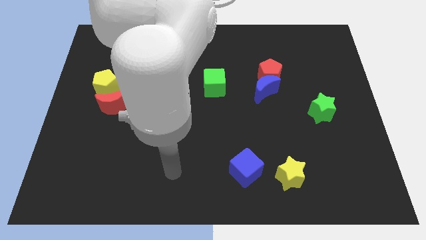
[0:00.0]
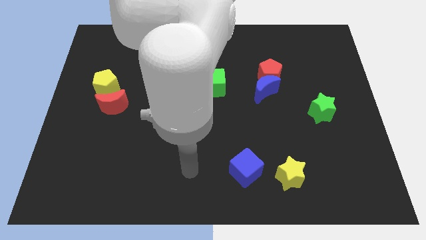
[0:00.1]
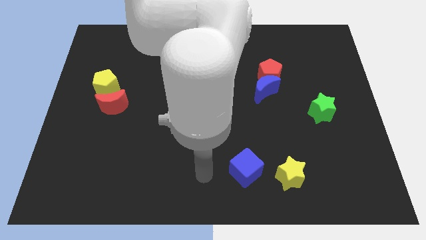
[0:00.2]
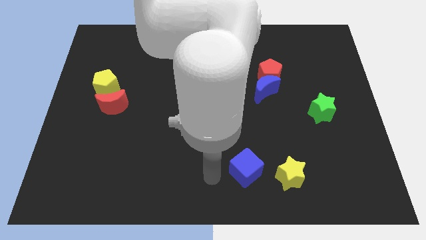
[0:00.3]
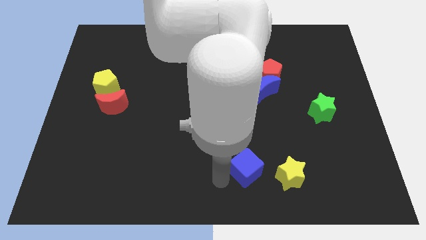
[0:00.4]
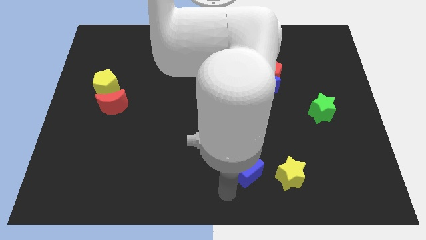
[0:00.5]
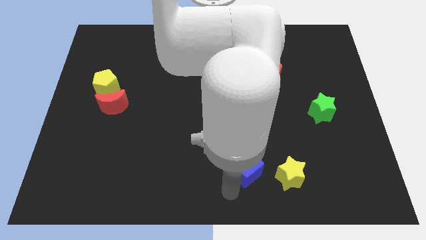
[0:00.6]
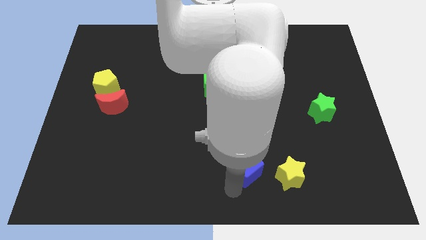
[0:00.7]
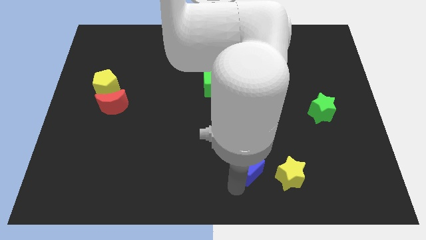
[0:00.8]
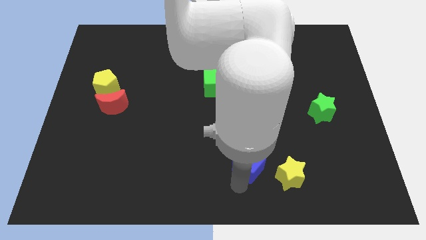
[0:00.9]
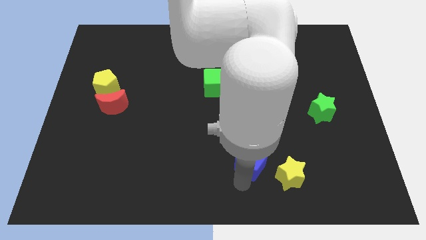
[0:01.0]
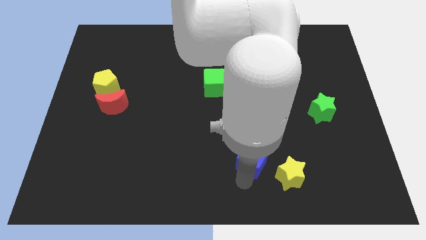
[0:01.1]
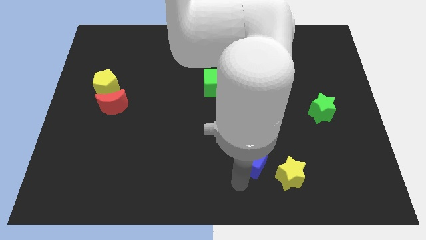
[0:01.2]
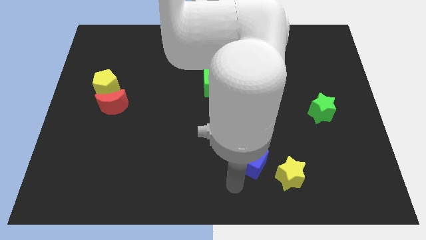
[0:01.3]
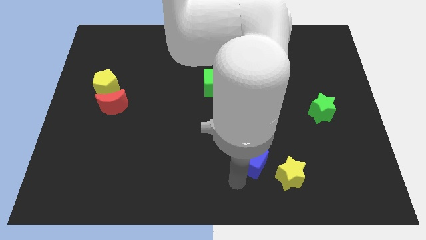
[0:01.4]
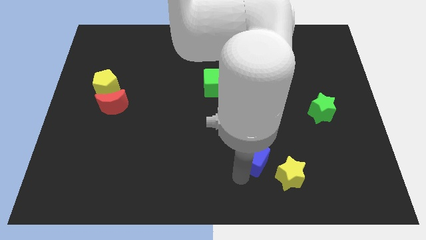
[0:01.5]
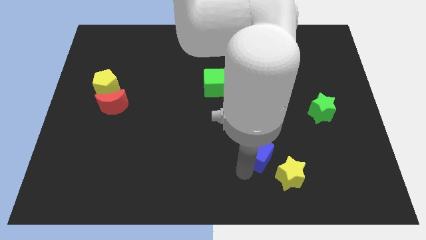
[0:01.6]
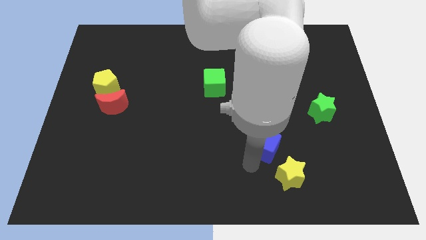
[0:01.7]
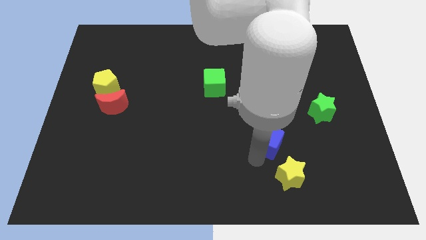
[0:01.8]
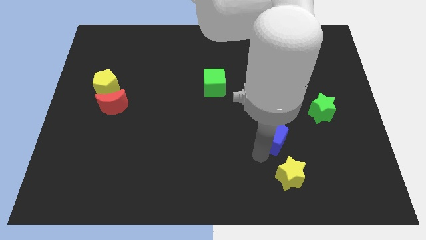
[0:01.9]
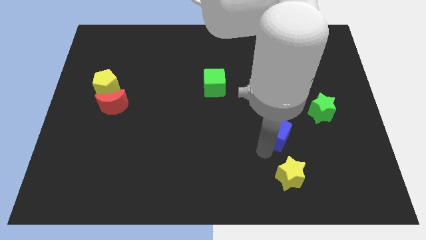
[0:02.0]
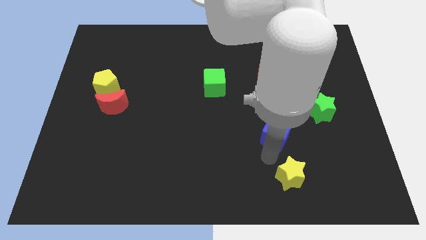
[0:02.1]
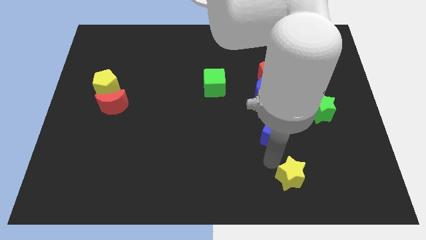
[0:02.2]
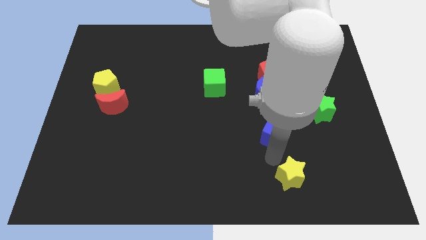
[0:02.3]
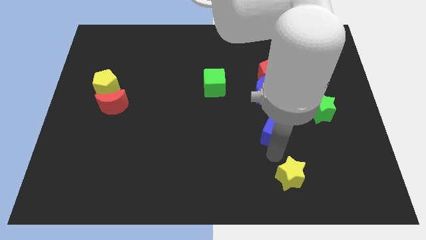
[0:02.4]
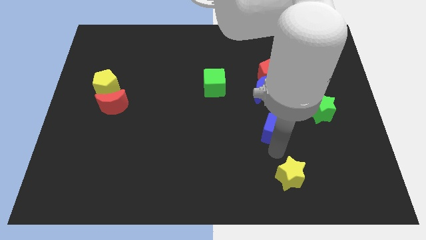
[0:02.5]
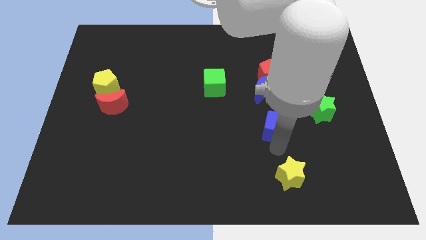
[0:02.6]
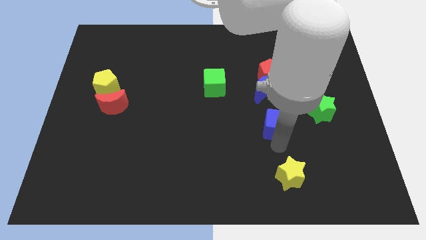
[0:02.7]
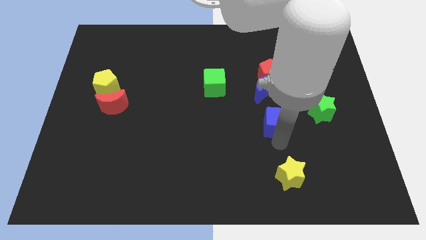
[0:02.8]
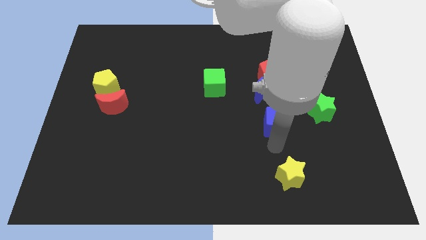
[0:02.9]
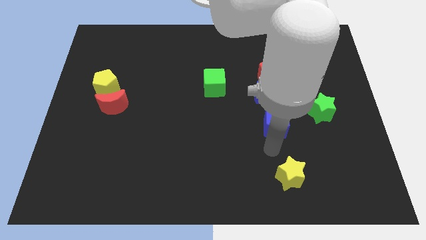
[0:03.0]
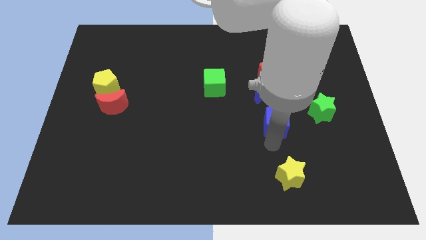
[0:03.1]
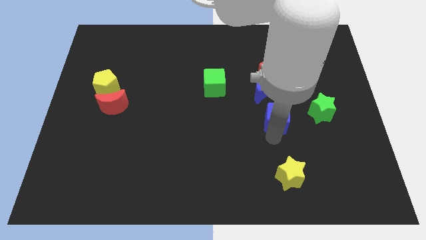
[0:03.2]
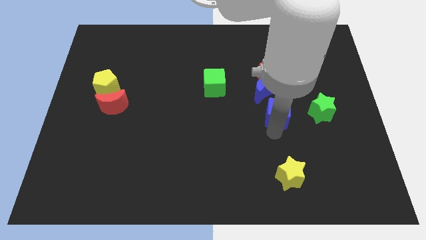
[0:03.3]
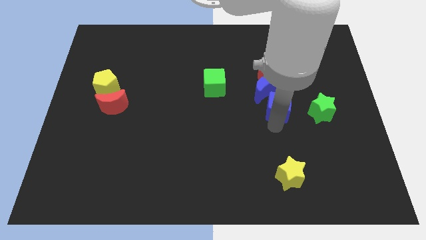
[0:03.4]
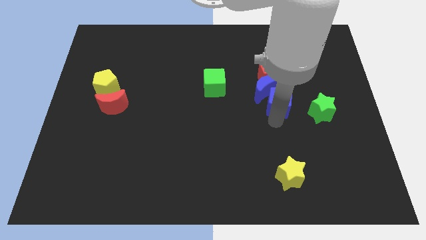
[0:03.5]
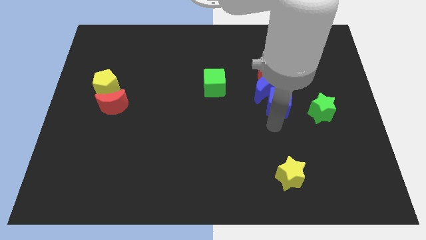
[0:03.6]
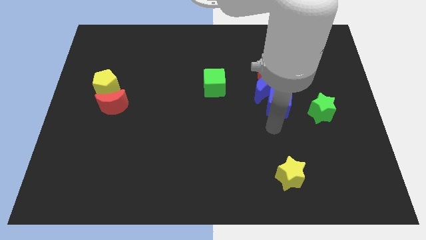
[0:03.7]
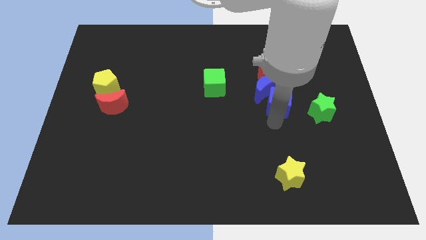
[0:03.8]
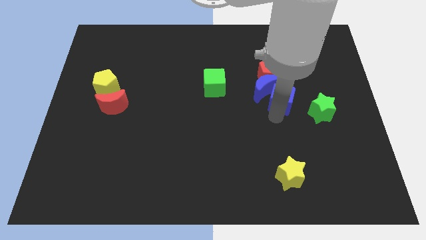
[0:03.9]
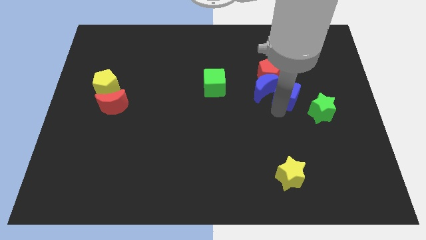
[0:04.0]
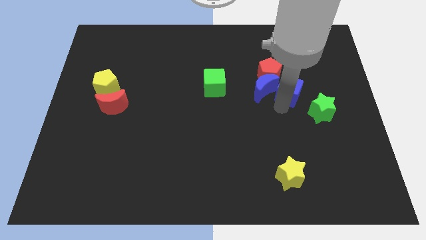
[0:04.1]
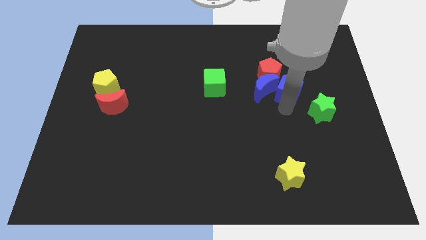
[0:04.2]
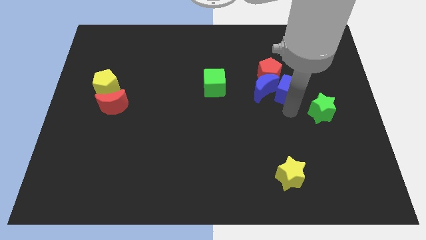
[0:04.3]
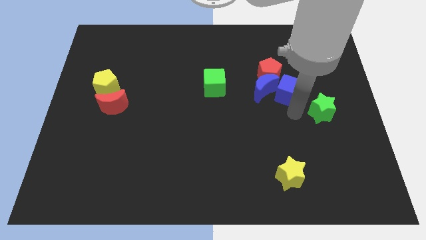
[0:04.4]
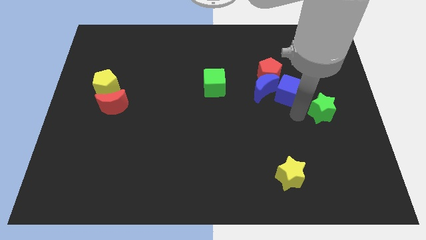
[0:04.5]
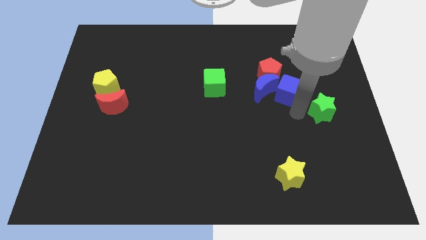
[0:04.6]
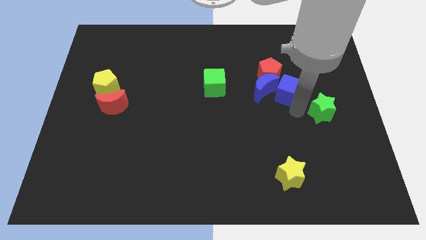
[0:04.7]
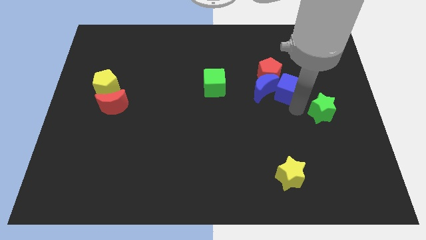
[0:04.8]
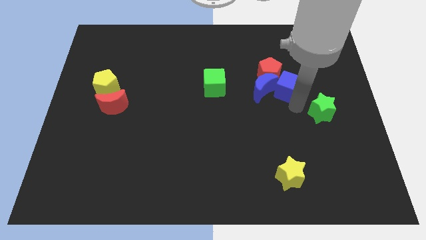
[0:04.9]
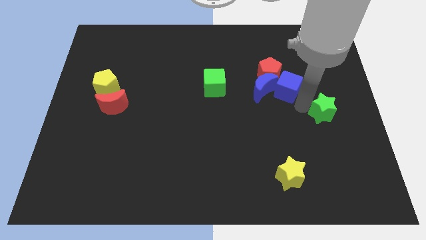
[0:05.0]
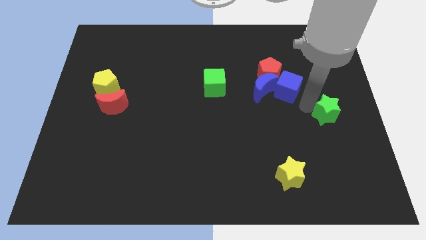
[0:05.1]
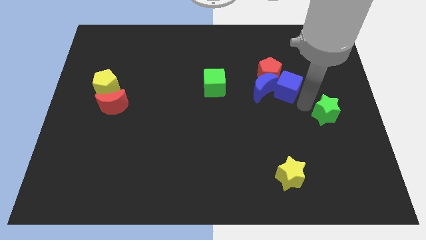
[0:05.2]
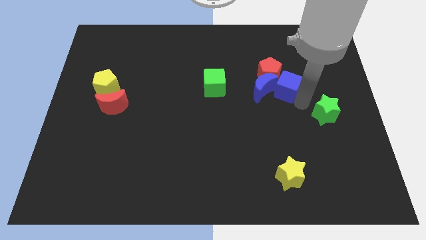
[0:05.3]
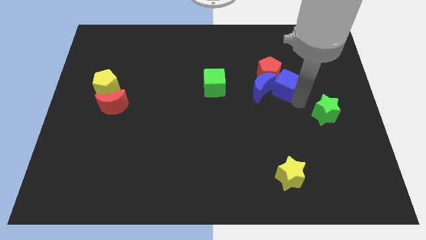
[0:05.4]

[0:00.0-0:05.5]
move the blue cube next to the red pentagon

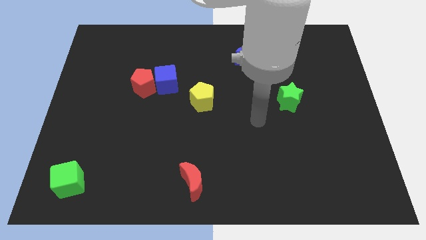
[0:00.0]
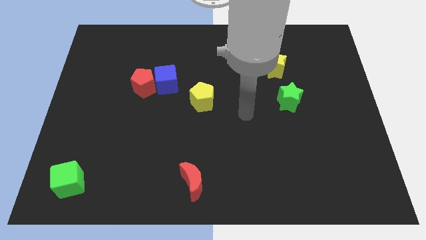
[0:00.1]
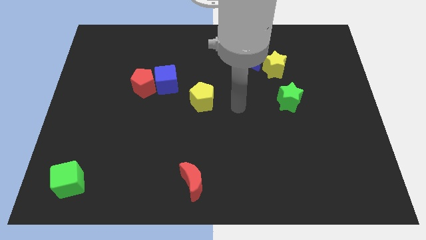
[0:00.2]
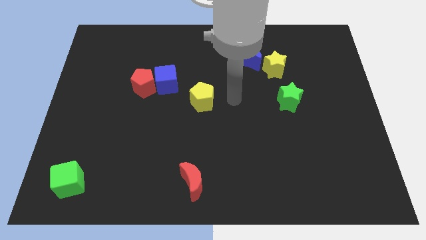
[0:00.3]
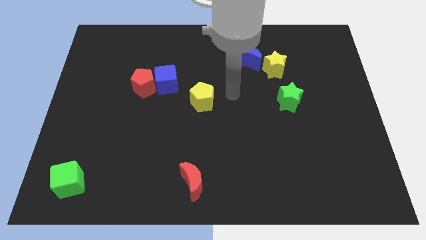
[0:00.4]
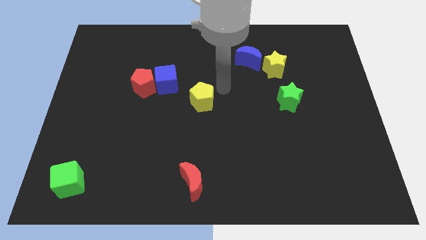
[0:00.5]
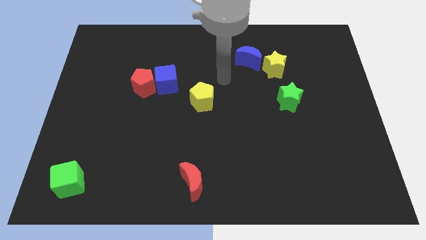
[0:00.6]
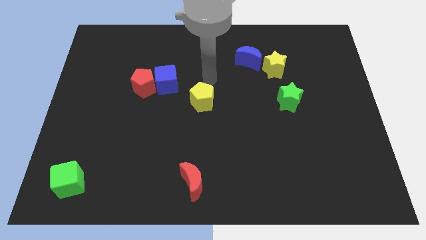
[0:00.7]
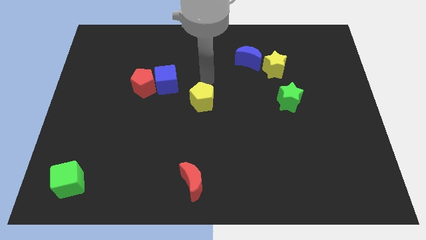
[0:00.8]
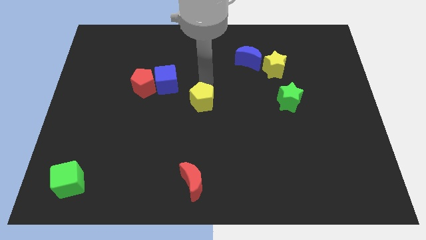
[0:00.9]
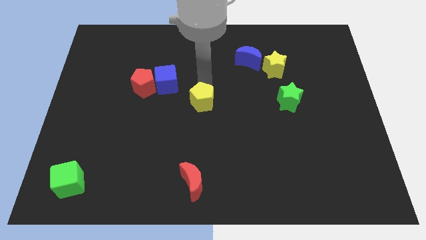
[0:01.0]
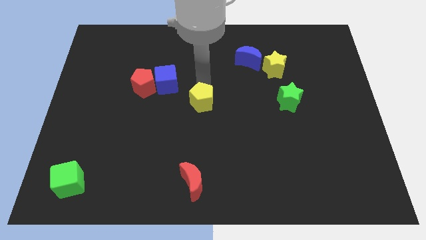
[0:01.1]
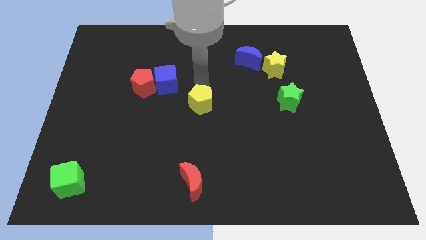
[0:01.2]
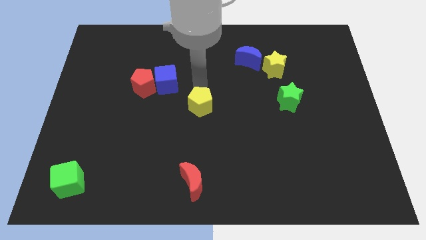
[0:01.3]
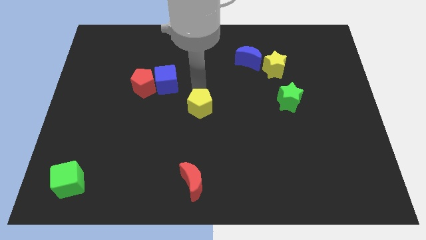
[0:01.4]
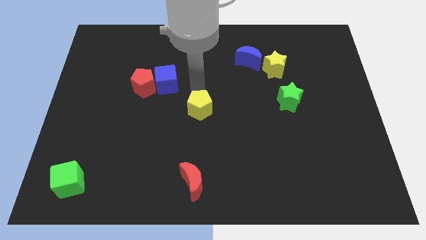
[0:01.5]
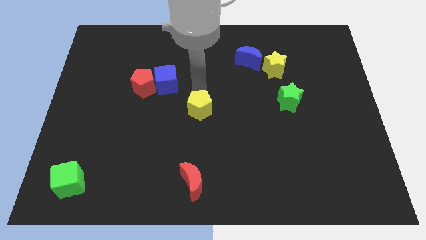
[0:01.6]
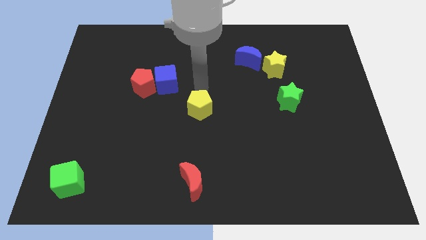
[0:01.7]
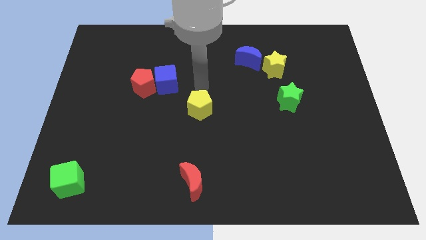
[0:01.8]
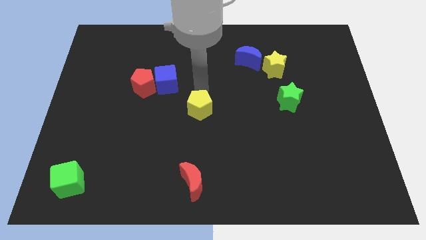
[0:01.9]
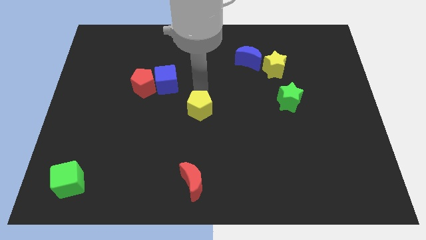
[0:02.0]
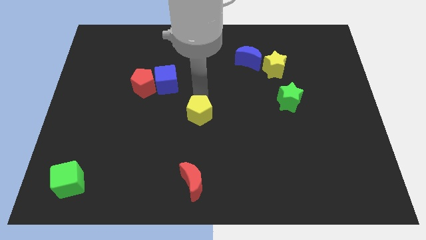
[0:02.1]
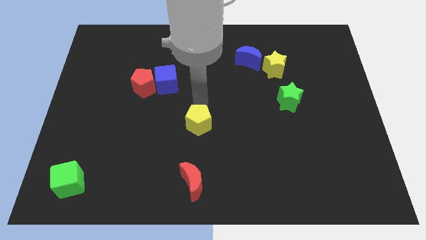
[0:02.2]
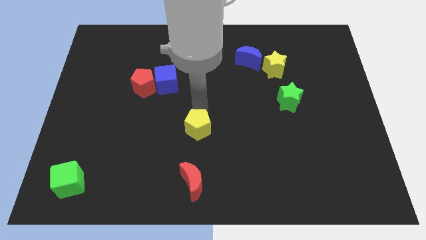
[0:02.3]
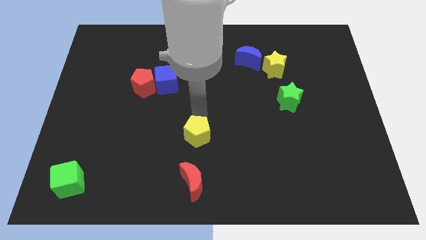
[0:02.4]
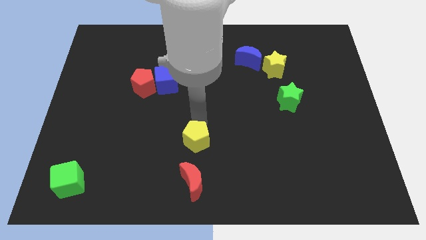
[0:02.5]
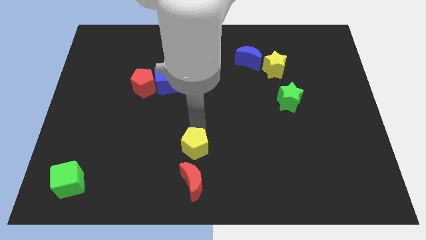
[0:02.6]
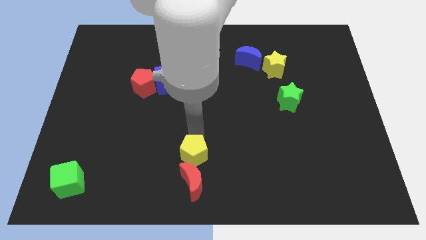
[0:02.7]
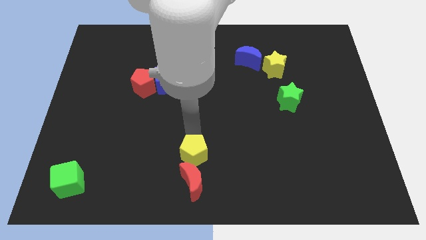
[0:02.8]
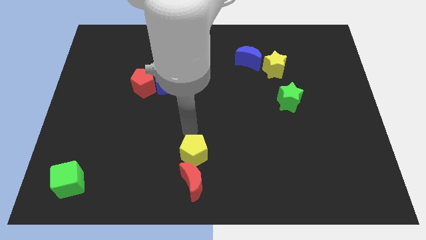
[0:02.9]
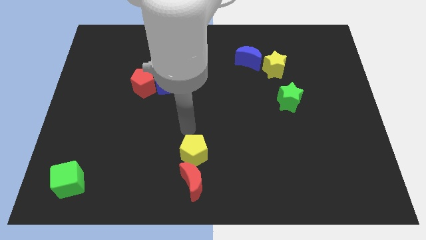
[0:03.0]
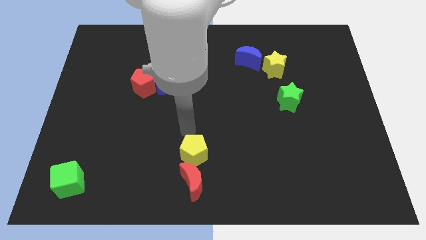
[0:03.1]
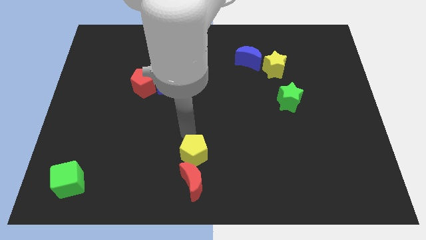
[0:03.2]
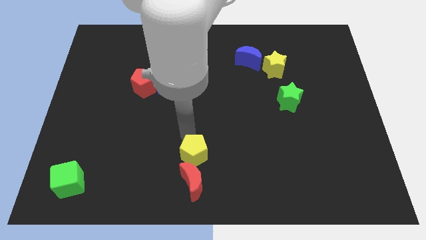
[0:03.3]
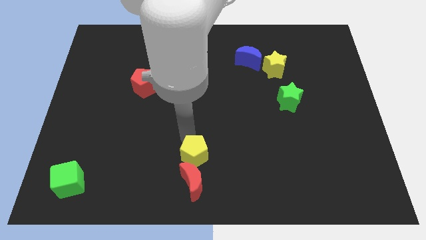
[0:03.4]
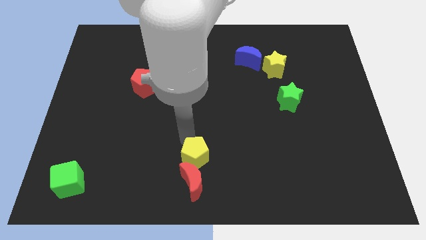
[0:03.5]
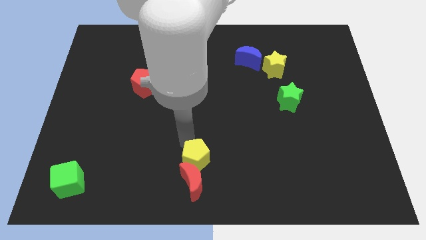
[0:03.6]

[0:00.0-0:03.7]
push the yellow pentagon to the red moon
